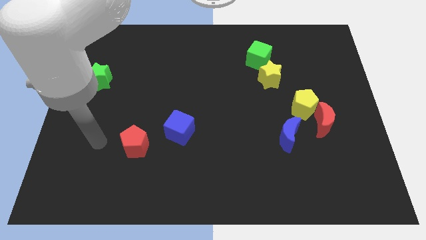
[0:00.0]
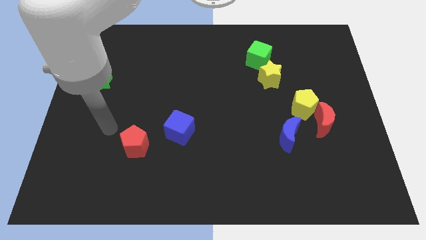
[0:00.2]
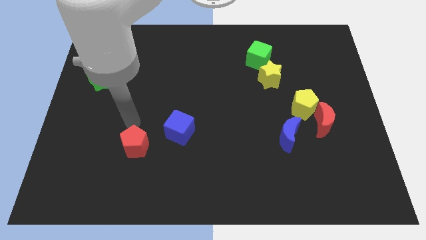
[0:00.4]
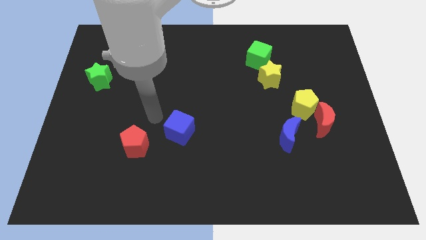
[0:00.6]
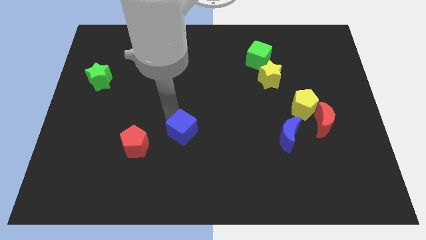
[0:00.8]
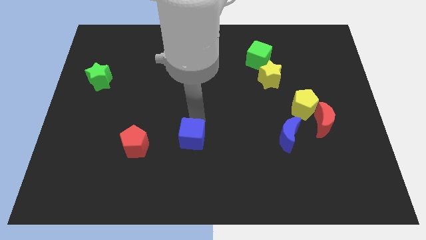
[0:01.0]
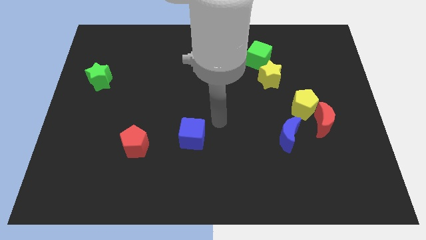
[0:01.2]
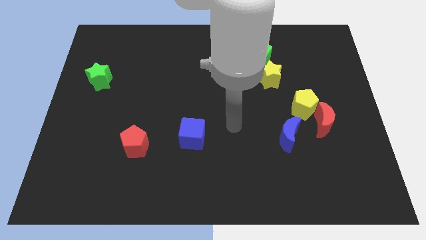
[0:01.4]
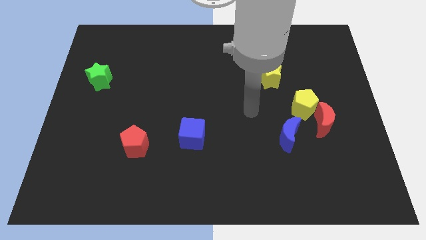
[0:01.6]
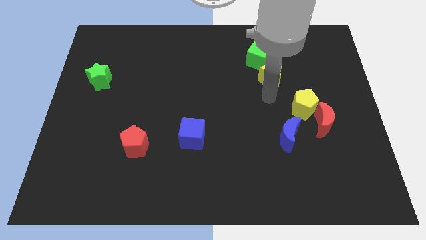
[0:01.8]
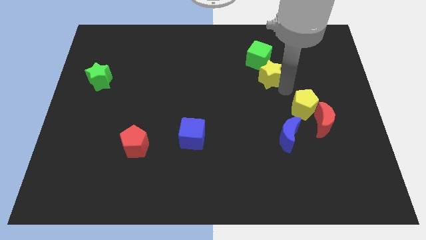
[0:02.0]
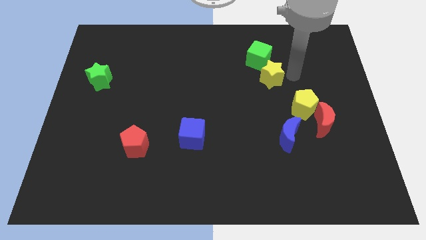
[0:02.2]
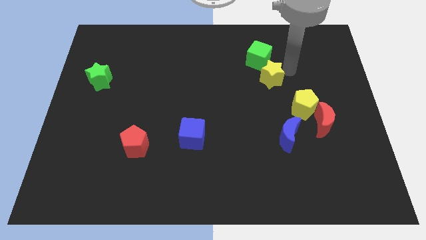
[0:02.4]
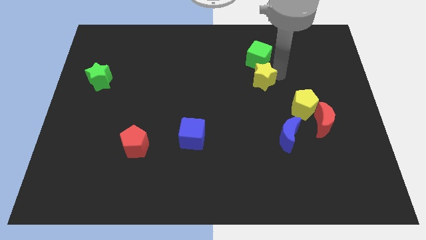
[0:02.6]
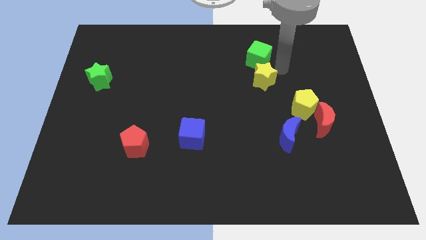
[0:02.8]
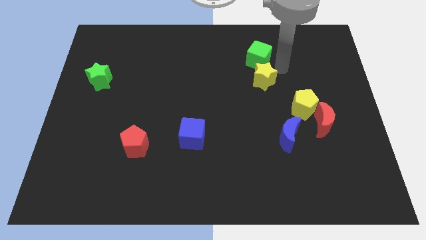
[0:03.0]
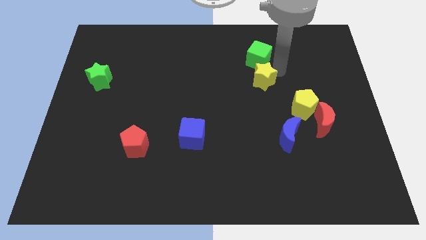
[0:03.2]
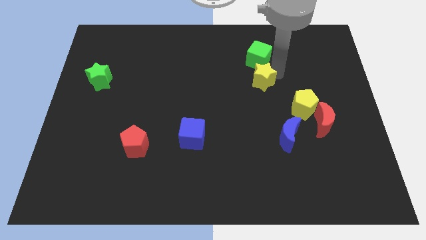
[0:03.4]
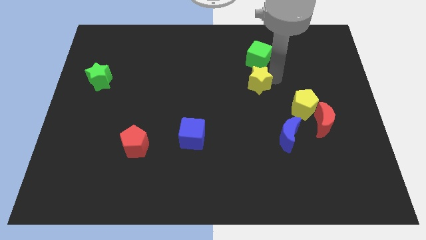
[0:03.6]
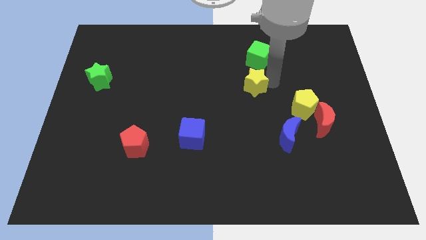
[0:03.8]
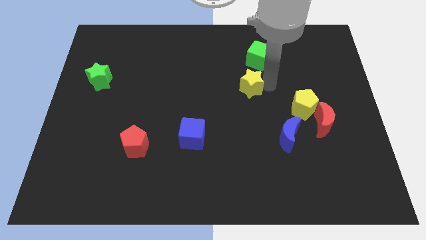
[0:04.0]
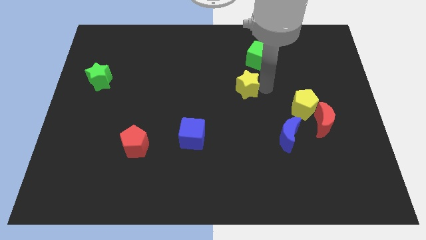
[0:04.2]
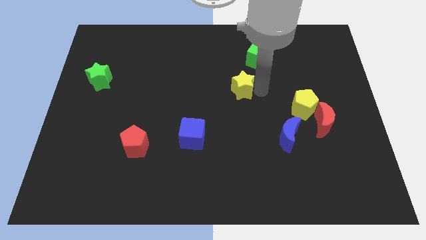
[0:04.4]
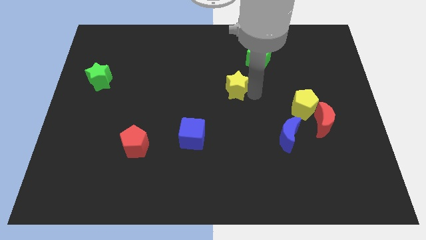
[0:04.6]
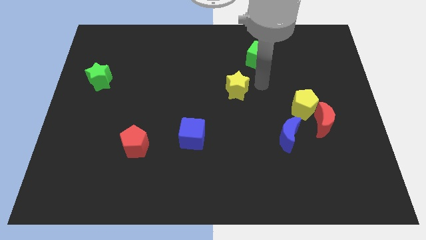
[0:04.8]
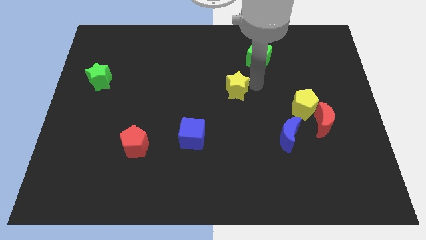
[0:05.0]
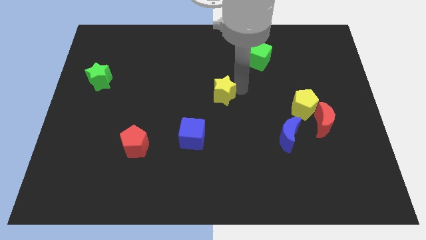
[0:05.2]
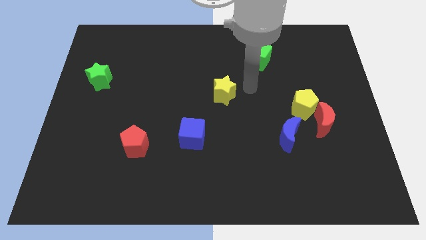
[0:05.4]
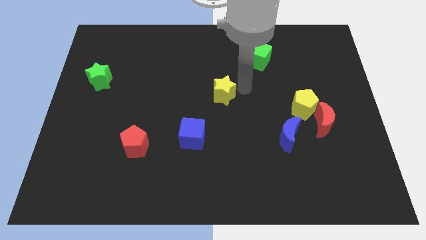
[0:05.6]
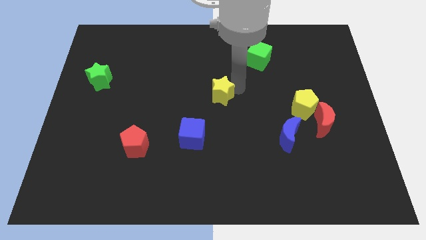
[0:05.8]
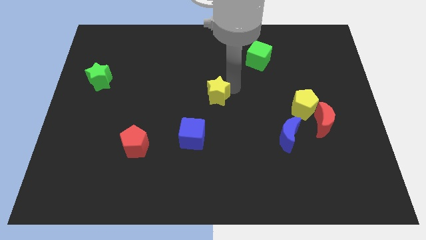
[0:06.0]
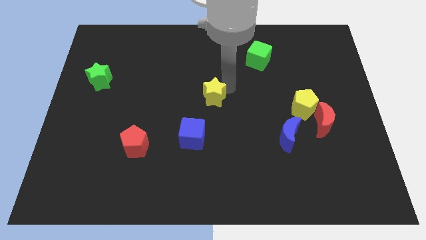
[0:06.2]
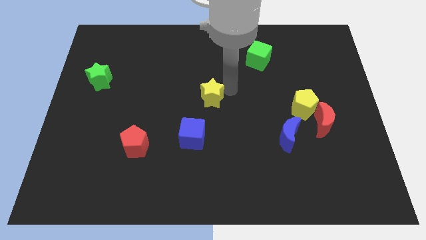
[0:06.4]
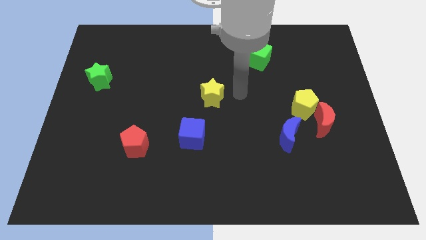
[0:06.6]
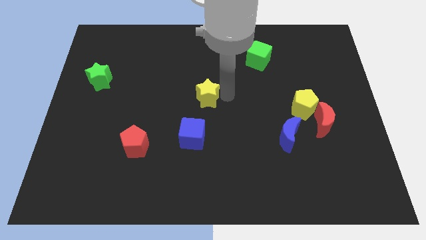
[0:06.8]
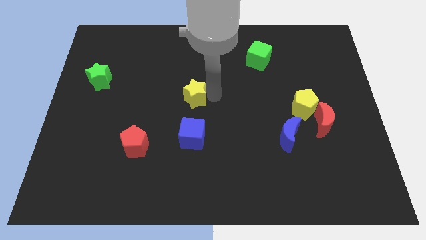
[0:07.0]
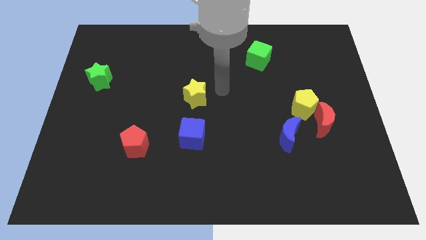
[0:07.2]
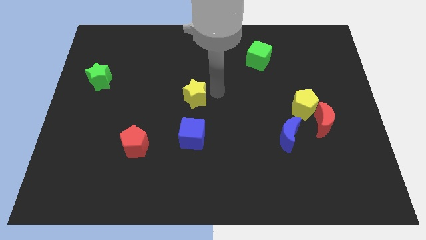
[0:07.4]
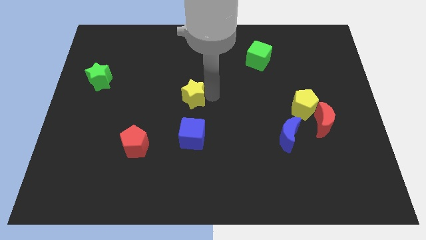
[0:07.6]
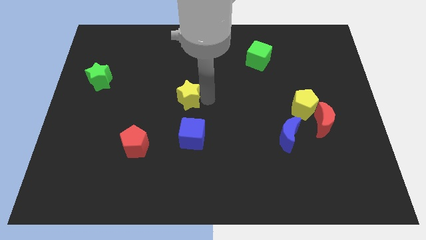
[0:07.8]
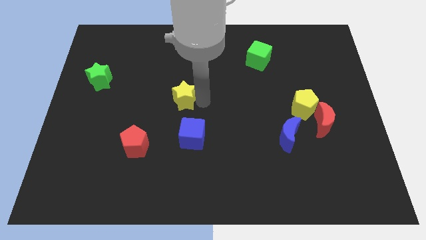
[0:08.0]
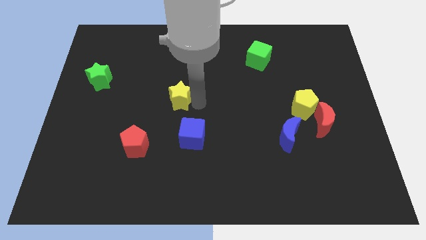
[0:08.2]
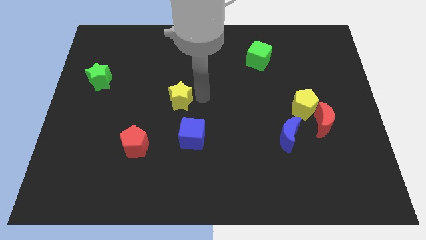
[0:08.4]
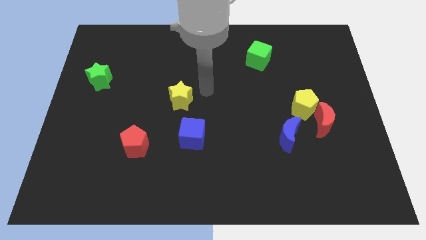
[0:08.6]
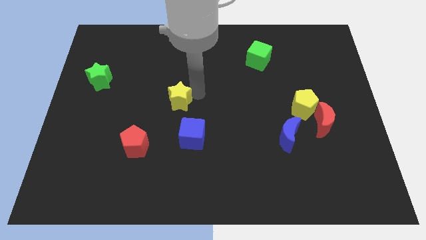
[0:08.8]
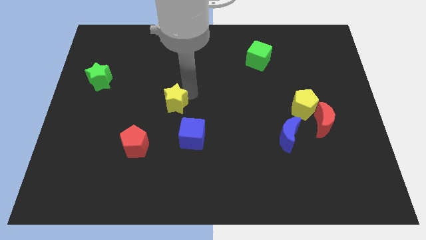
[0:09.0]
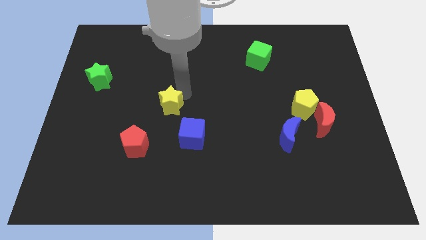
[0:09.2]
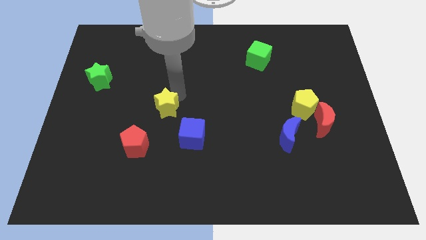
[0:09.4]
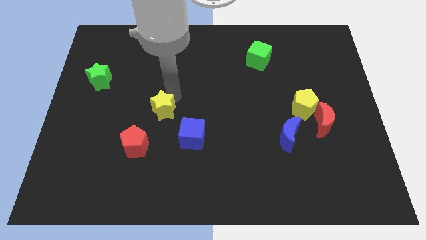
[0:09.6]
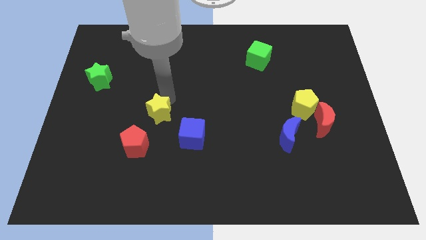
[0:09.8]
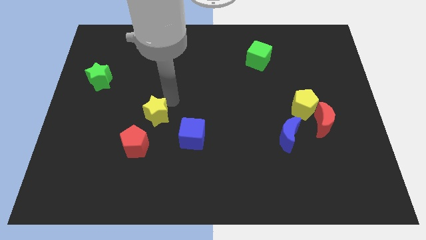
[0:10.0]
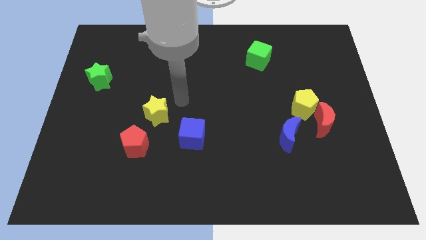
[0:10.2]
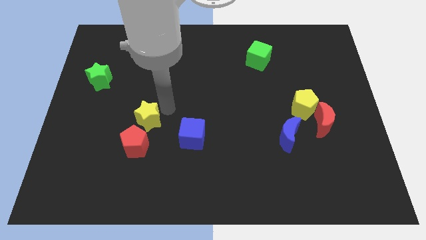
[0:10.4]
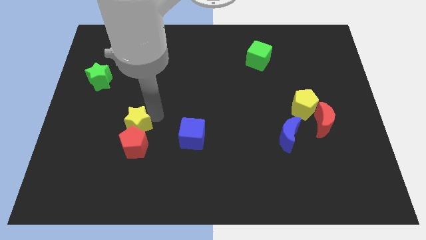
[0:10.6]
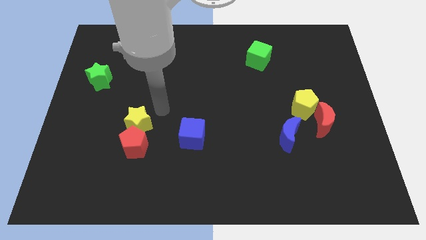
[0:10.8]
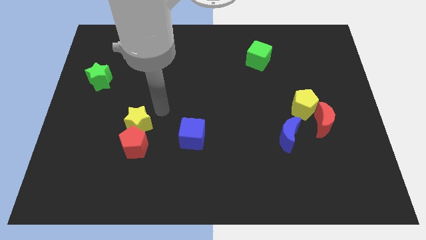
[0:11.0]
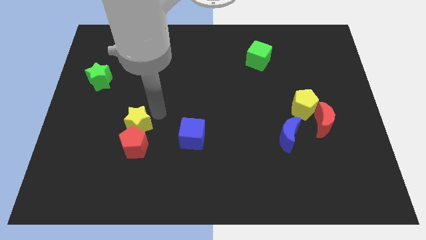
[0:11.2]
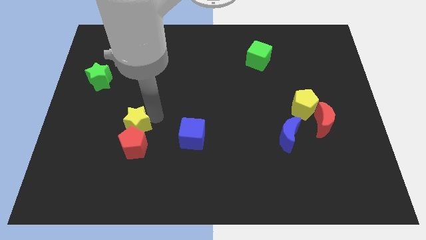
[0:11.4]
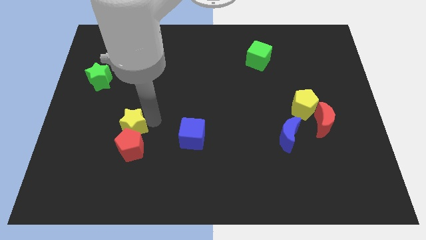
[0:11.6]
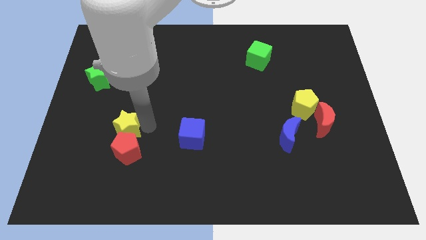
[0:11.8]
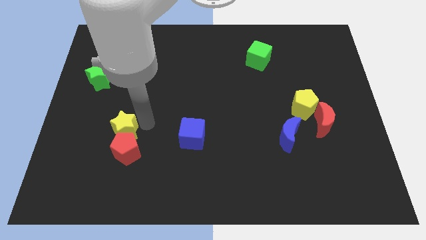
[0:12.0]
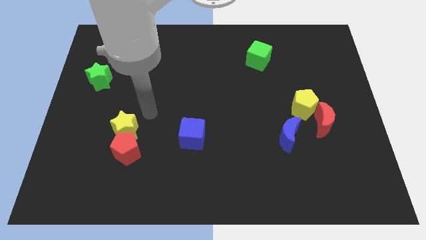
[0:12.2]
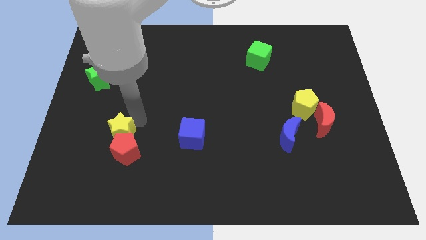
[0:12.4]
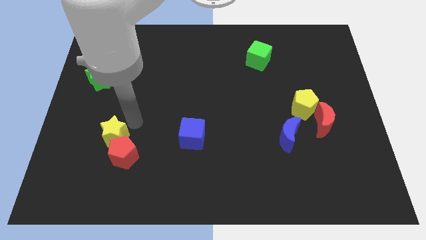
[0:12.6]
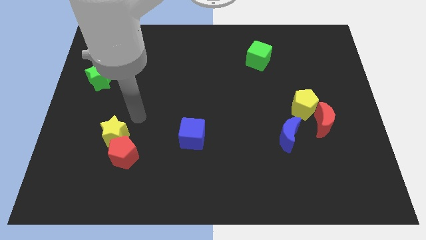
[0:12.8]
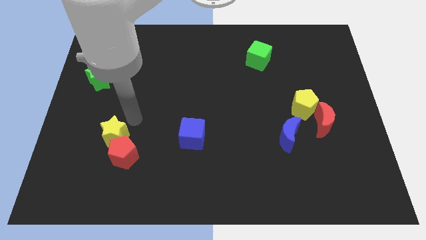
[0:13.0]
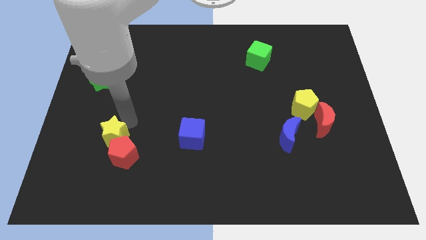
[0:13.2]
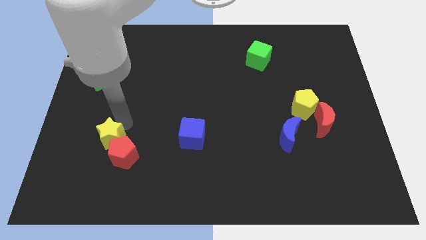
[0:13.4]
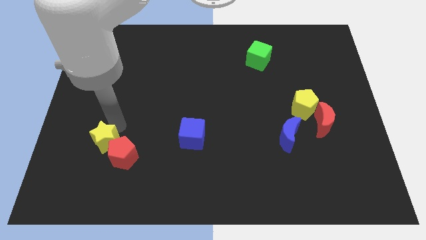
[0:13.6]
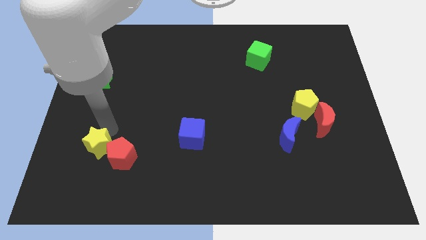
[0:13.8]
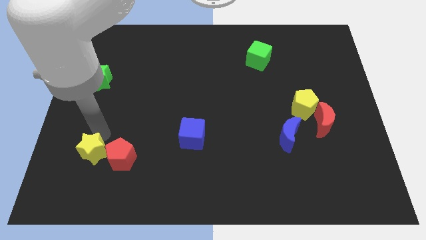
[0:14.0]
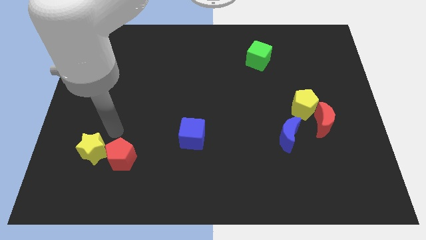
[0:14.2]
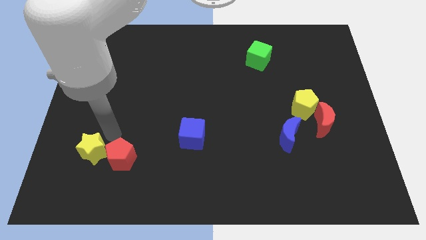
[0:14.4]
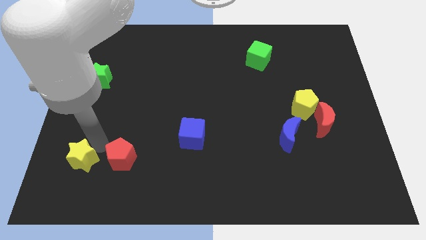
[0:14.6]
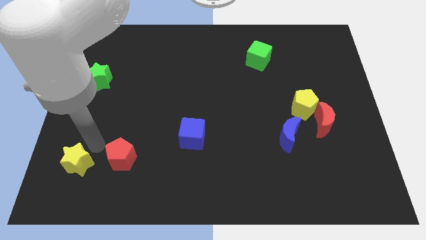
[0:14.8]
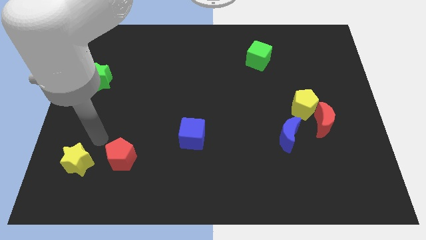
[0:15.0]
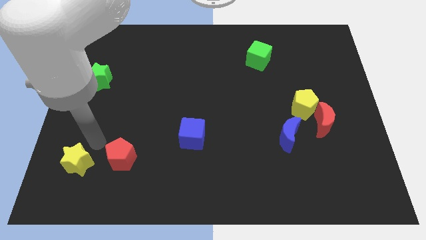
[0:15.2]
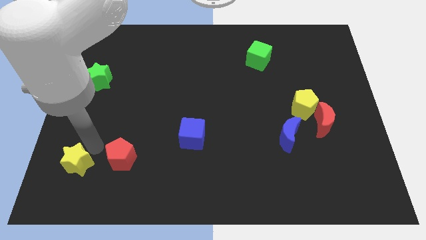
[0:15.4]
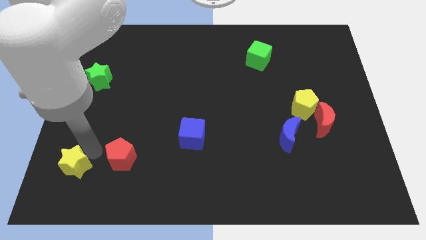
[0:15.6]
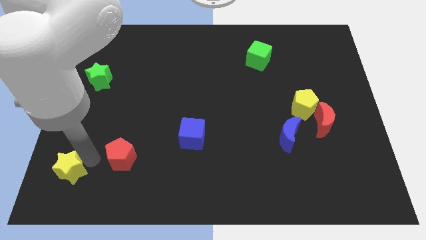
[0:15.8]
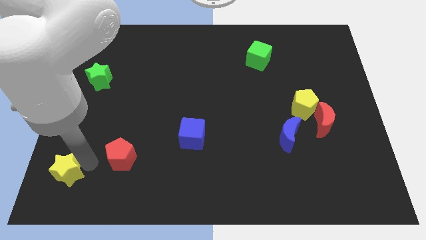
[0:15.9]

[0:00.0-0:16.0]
slide the yellow star to the lower left corner
